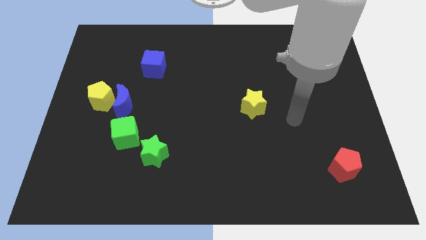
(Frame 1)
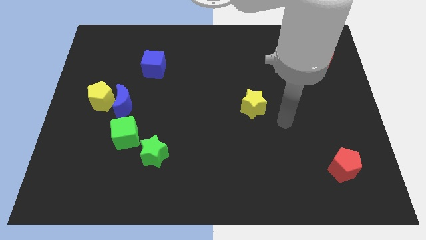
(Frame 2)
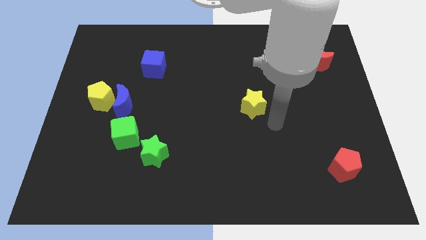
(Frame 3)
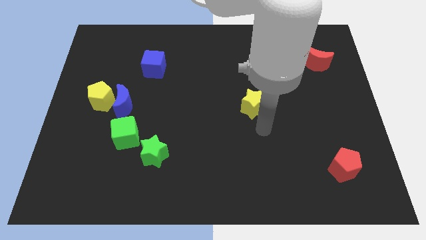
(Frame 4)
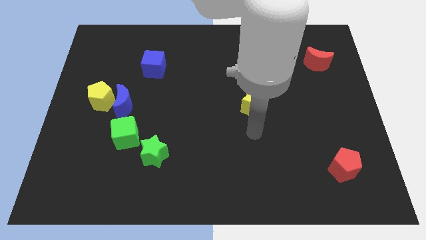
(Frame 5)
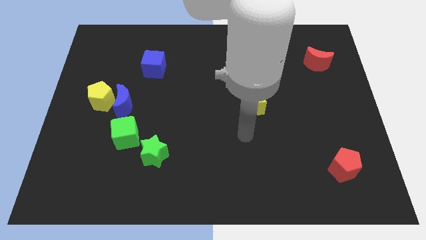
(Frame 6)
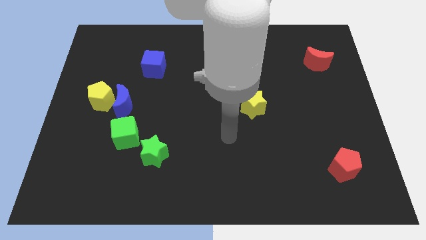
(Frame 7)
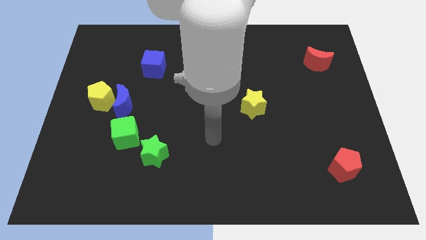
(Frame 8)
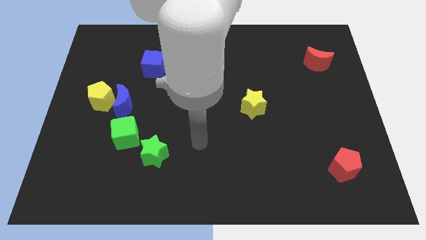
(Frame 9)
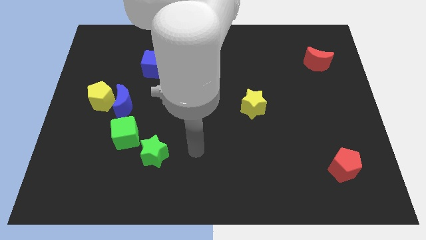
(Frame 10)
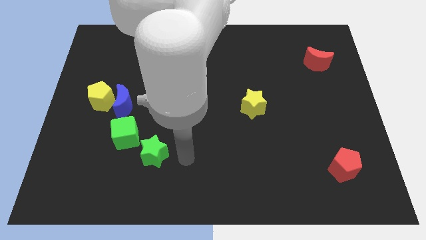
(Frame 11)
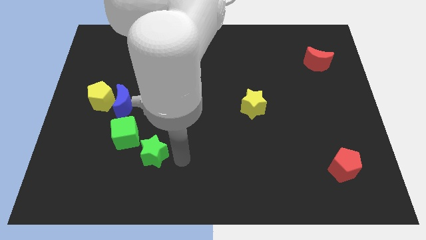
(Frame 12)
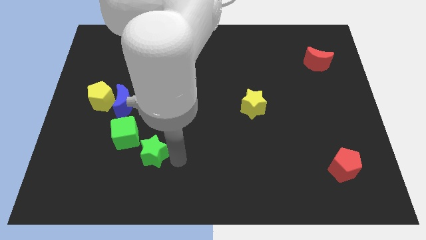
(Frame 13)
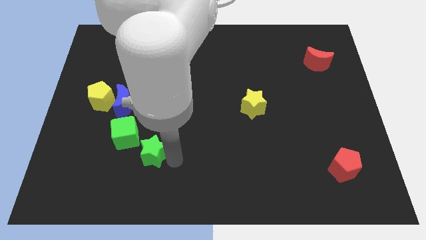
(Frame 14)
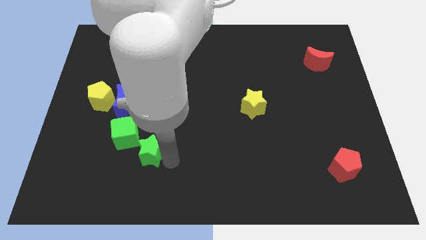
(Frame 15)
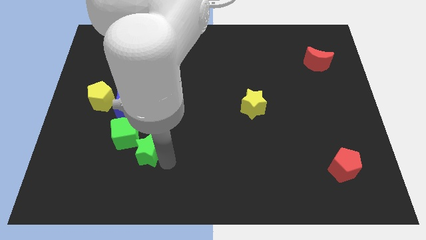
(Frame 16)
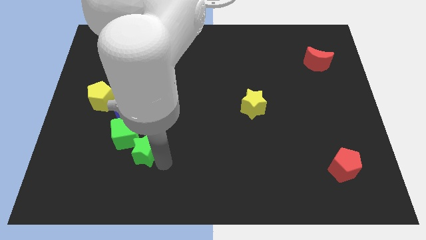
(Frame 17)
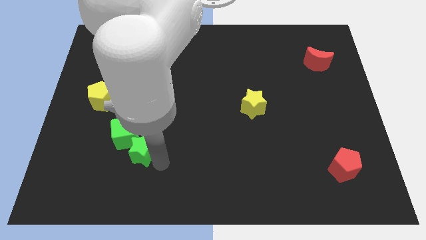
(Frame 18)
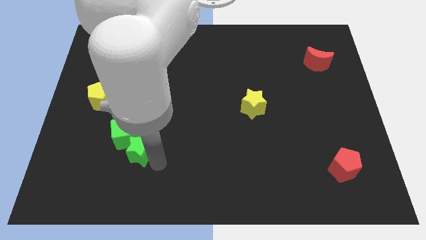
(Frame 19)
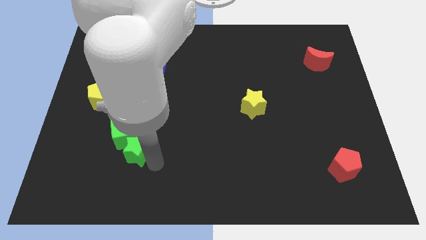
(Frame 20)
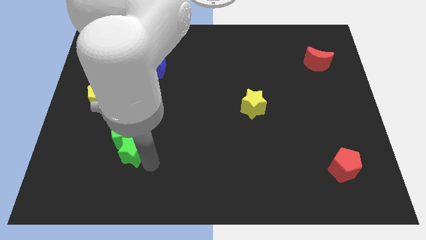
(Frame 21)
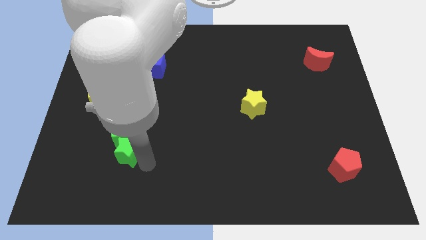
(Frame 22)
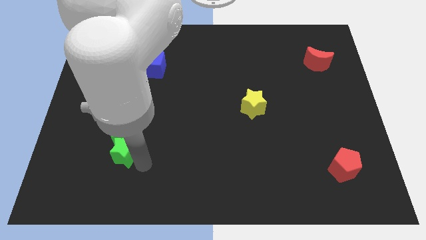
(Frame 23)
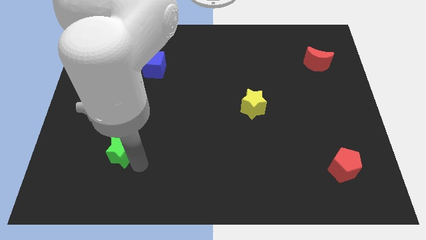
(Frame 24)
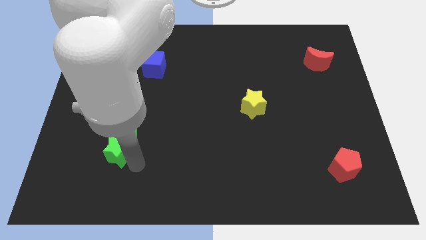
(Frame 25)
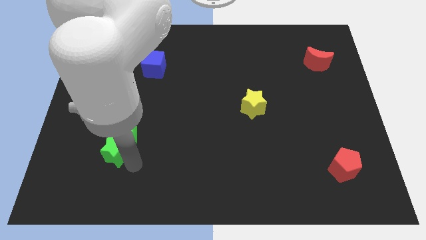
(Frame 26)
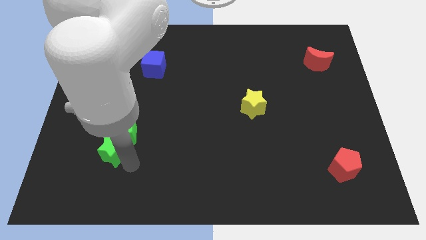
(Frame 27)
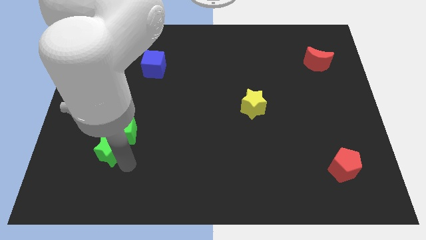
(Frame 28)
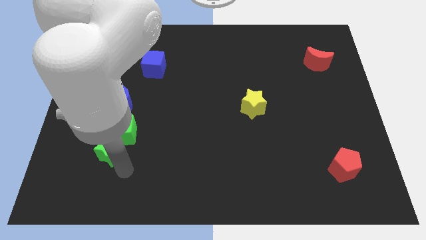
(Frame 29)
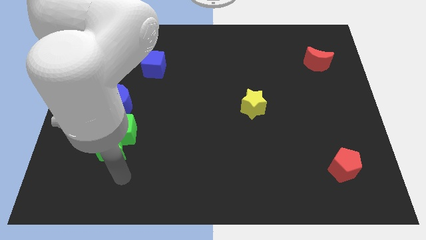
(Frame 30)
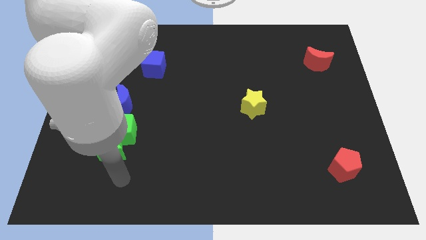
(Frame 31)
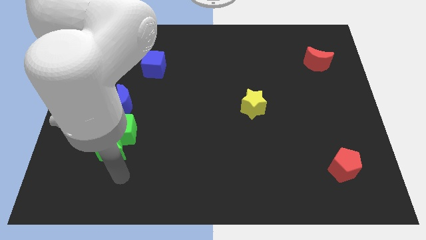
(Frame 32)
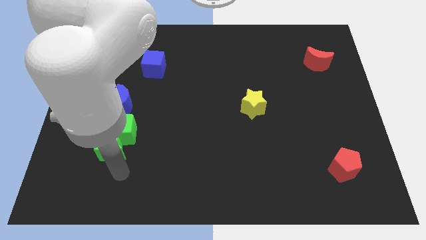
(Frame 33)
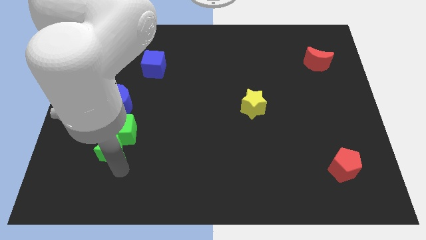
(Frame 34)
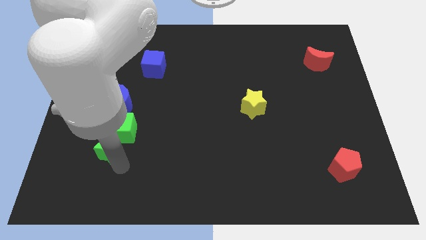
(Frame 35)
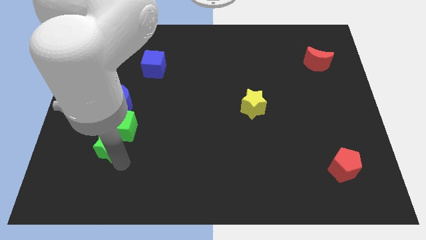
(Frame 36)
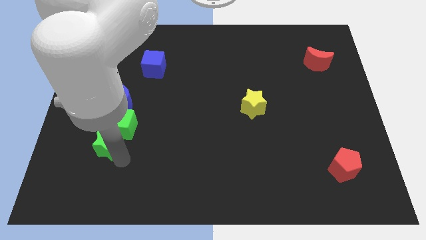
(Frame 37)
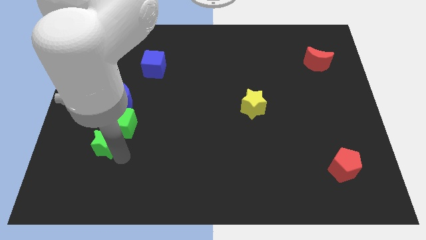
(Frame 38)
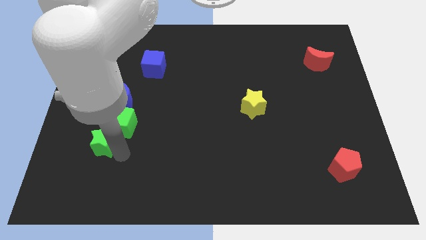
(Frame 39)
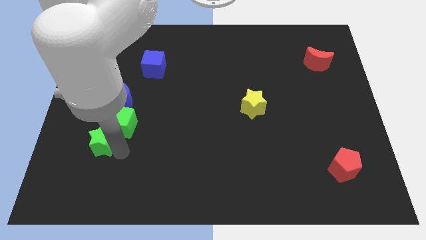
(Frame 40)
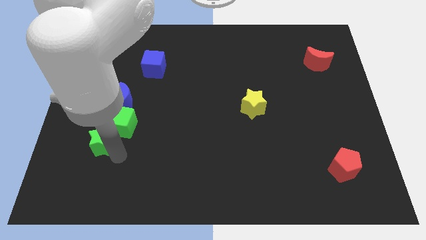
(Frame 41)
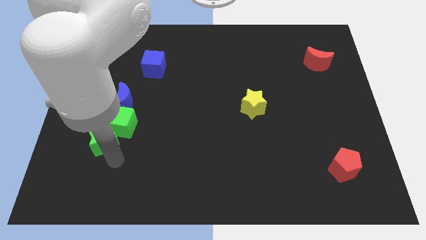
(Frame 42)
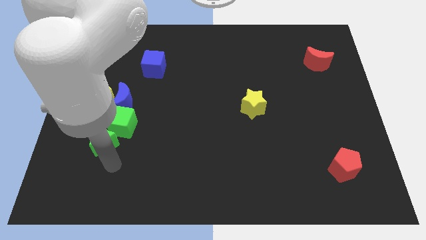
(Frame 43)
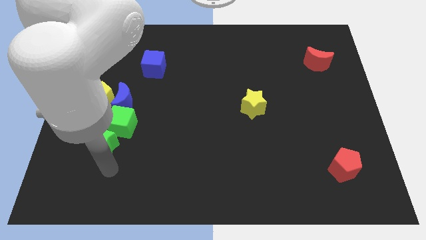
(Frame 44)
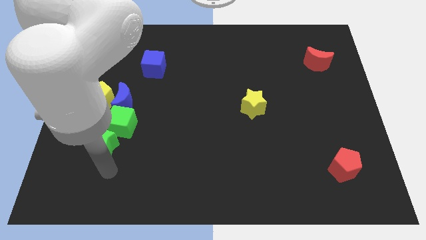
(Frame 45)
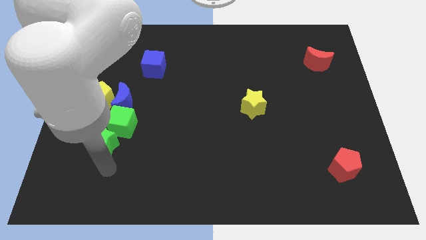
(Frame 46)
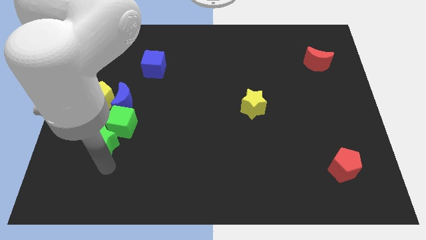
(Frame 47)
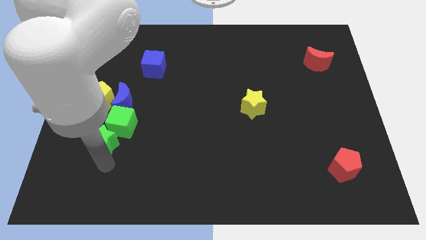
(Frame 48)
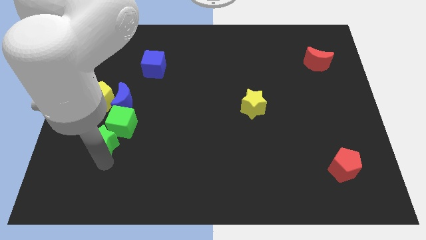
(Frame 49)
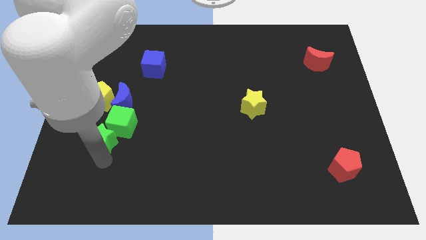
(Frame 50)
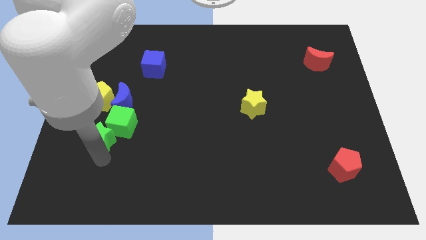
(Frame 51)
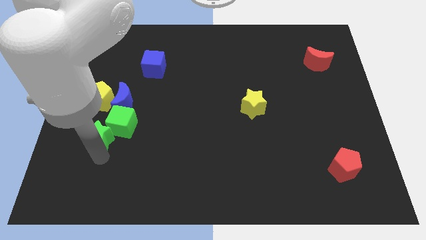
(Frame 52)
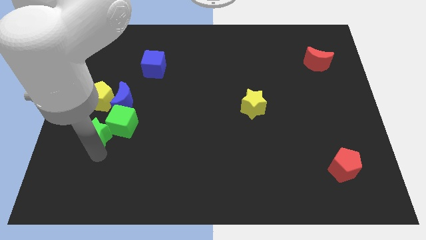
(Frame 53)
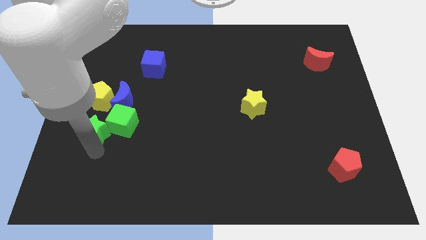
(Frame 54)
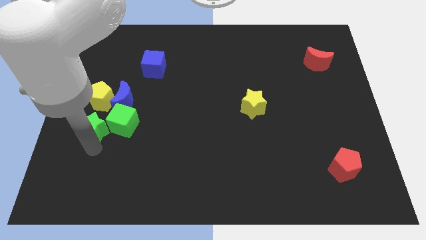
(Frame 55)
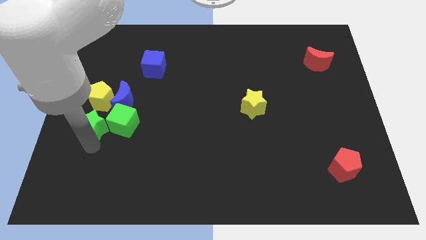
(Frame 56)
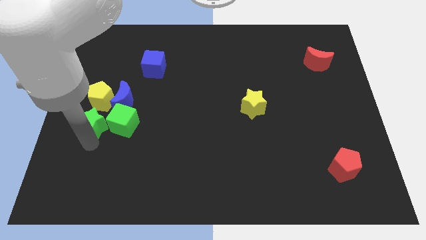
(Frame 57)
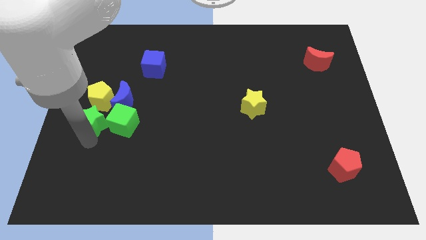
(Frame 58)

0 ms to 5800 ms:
move the green star to the top left side of the green cube

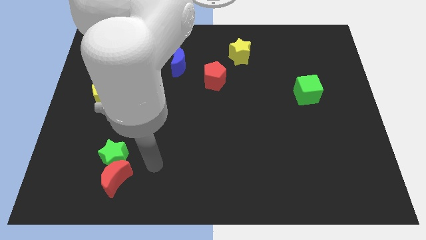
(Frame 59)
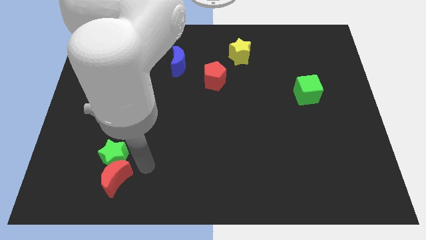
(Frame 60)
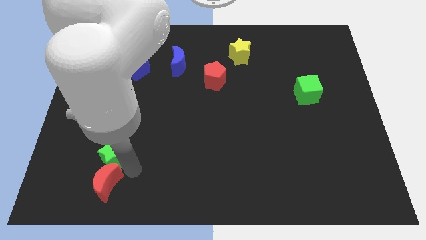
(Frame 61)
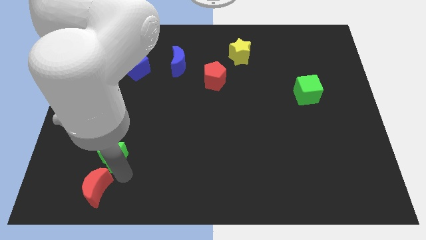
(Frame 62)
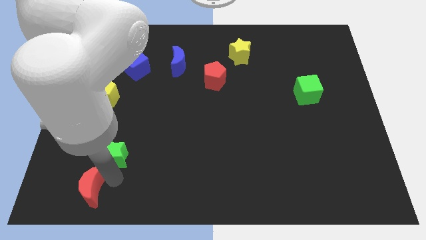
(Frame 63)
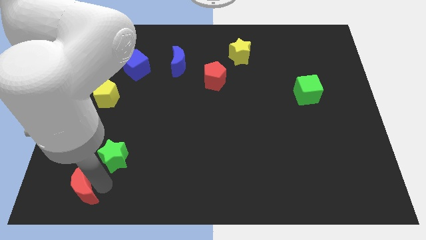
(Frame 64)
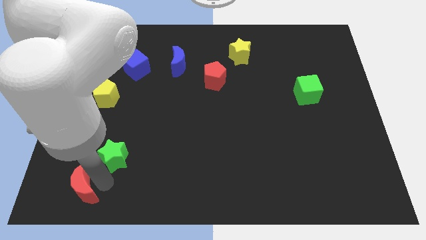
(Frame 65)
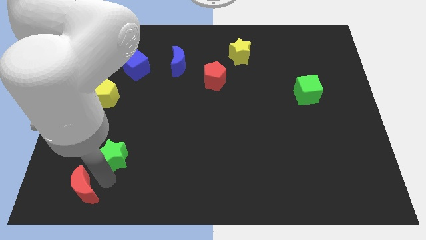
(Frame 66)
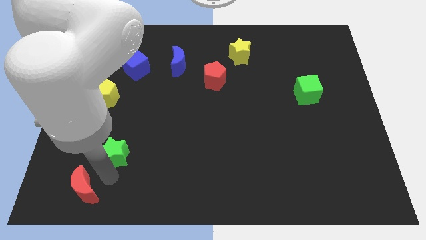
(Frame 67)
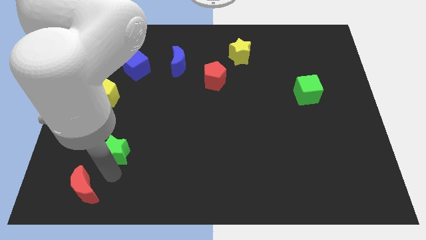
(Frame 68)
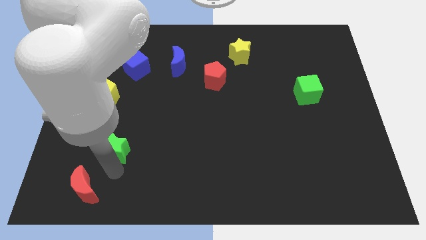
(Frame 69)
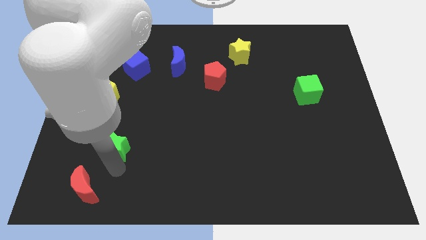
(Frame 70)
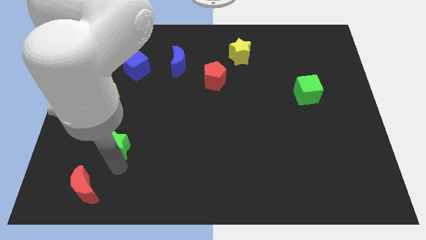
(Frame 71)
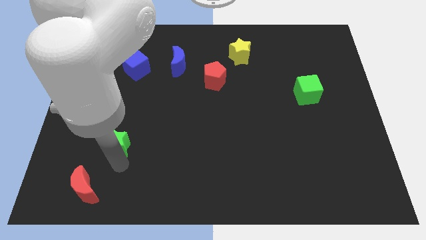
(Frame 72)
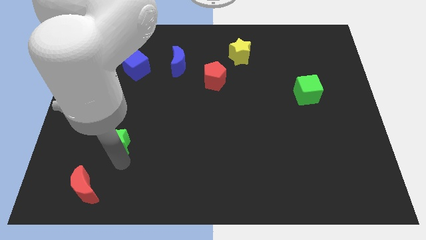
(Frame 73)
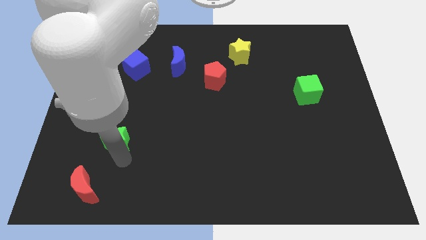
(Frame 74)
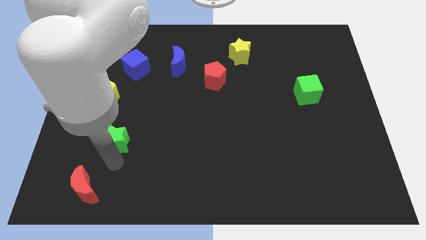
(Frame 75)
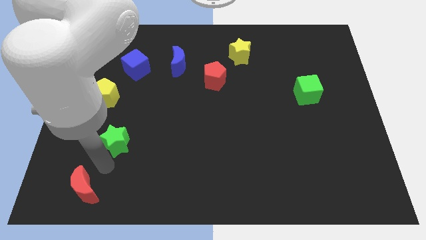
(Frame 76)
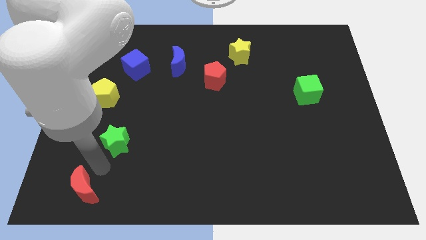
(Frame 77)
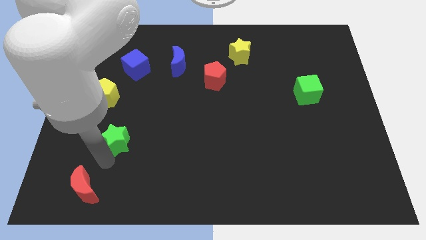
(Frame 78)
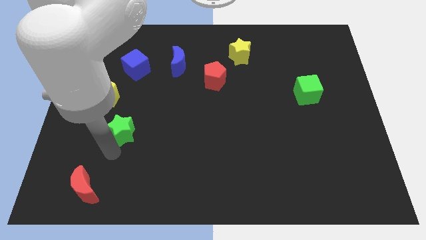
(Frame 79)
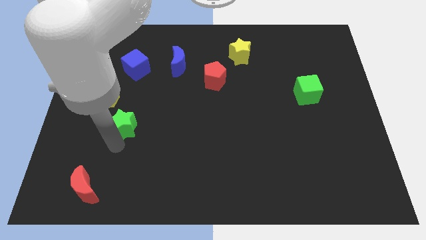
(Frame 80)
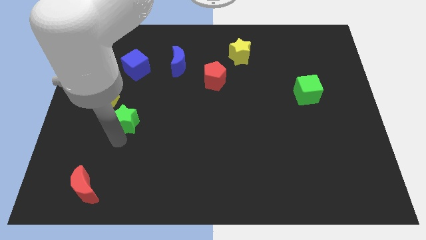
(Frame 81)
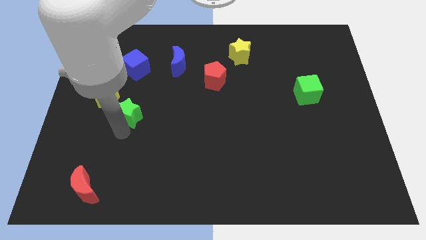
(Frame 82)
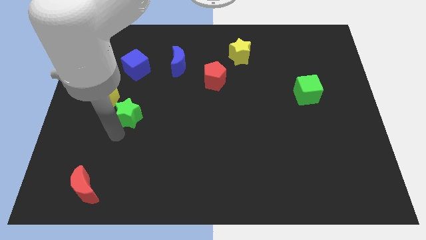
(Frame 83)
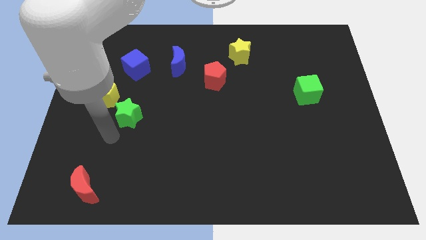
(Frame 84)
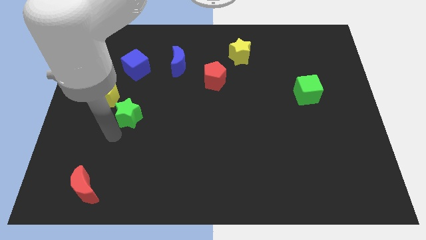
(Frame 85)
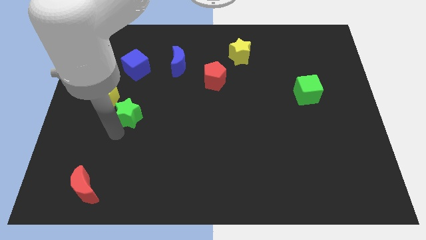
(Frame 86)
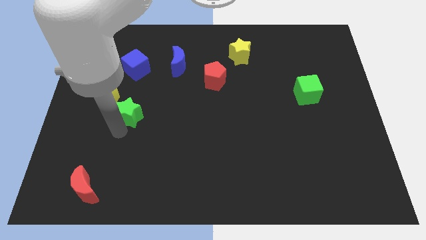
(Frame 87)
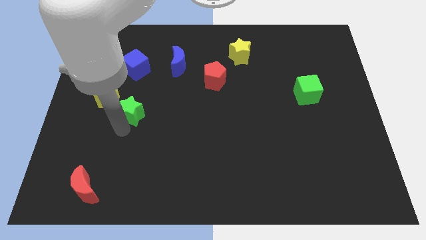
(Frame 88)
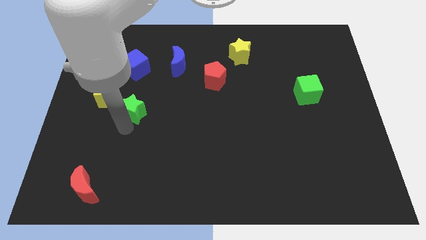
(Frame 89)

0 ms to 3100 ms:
move the green star to the right of the yellow pentagon
